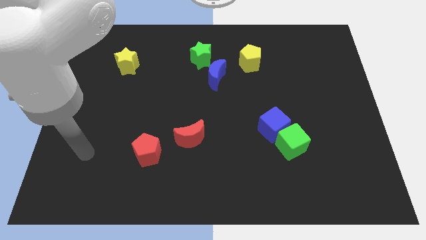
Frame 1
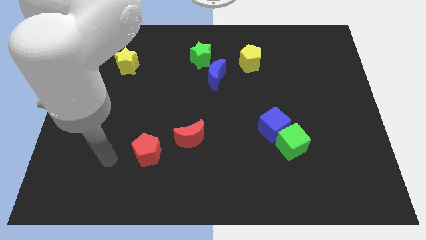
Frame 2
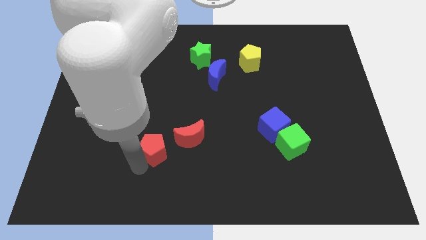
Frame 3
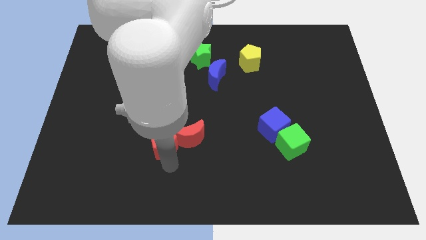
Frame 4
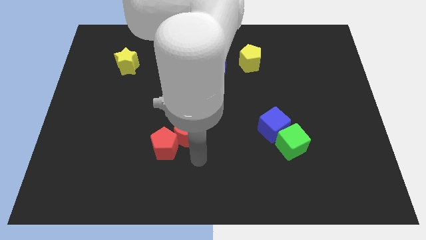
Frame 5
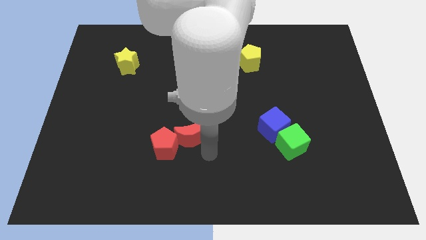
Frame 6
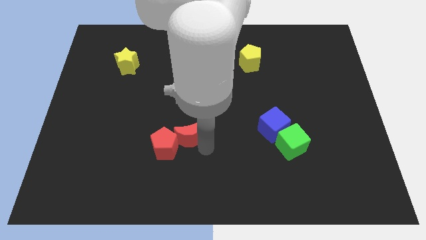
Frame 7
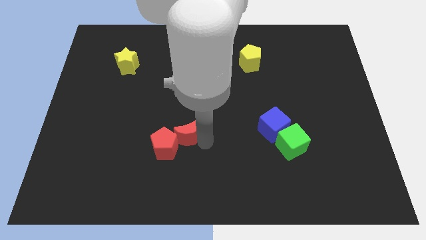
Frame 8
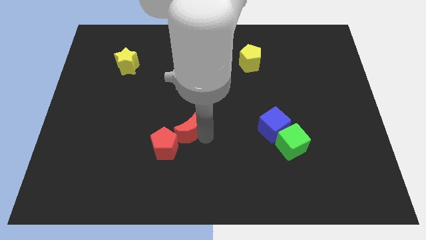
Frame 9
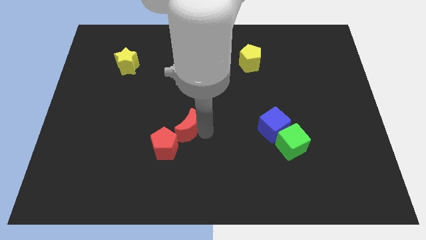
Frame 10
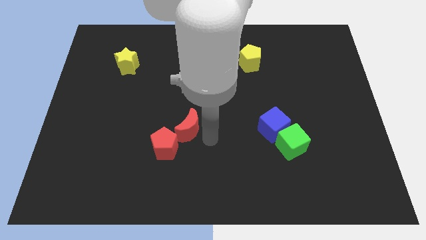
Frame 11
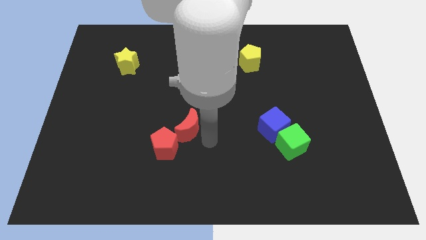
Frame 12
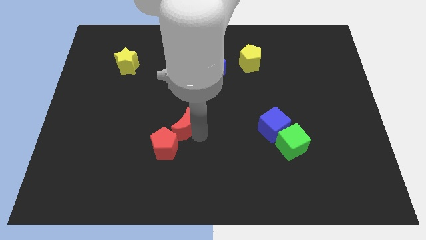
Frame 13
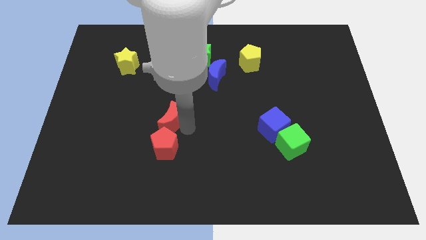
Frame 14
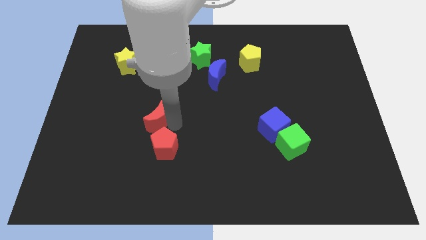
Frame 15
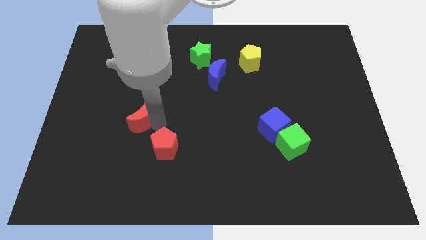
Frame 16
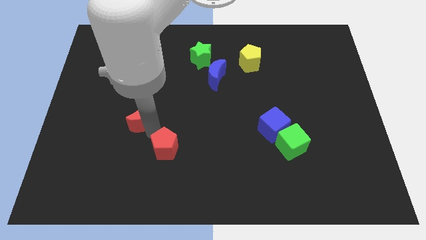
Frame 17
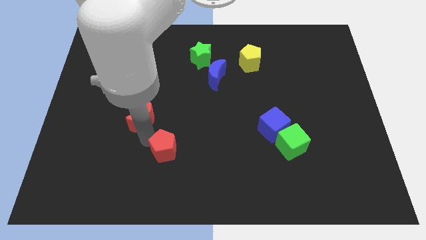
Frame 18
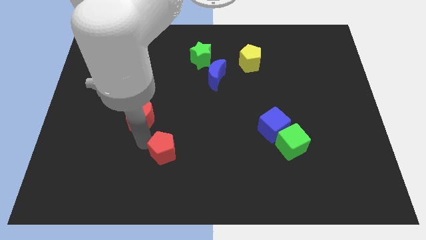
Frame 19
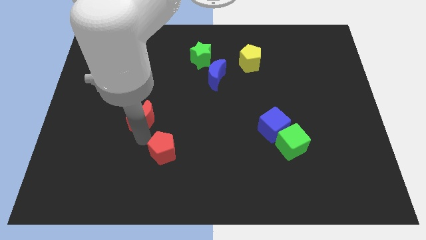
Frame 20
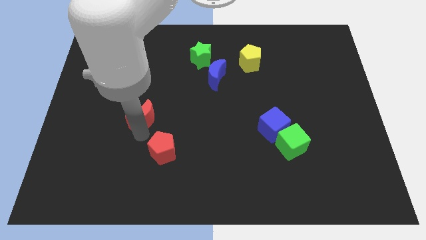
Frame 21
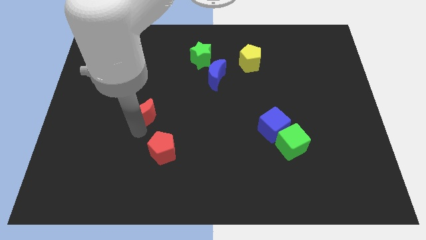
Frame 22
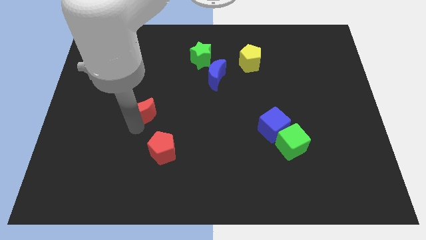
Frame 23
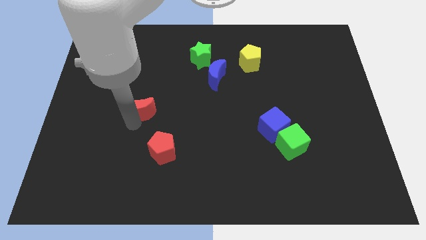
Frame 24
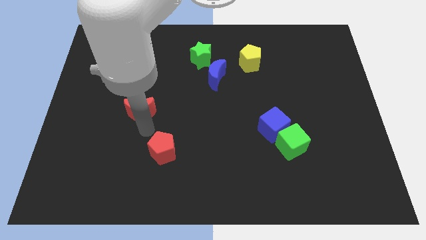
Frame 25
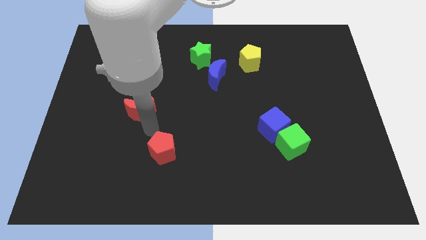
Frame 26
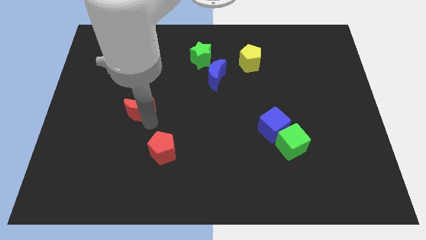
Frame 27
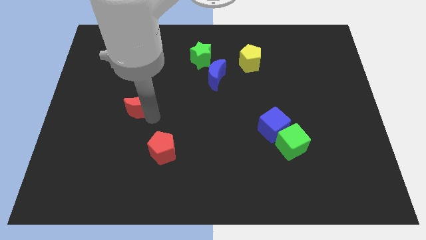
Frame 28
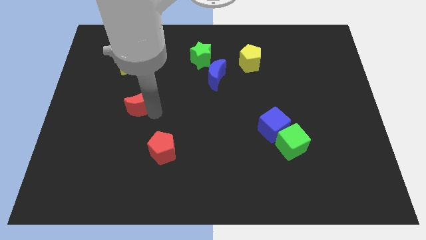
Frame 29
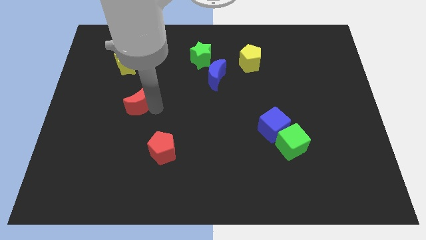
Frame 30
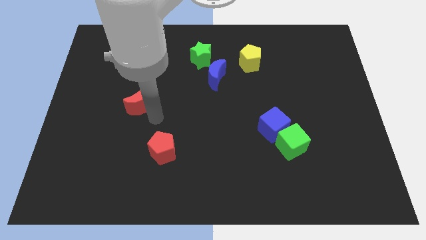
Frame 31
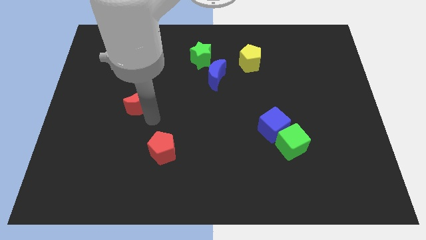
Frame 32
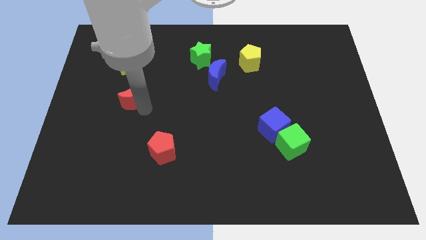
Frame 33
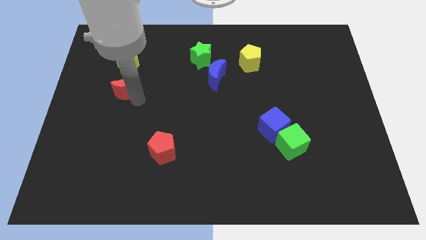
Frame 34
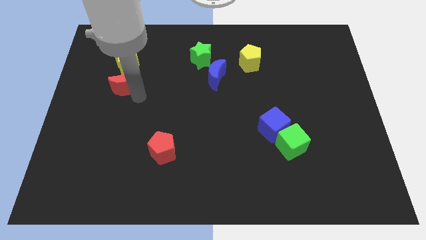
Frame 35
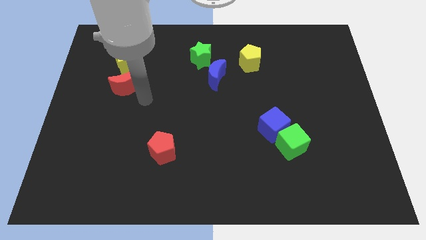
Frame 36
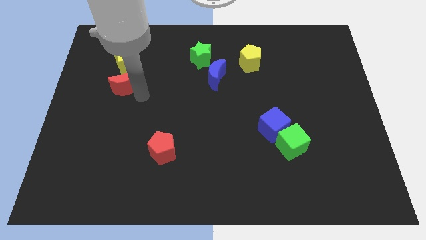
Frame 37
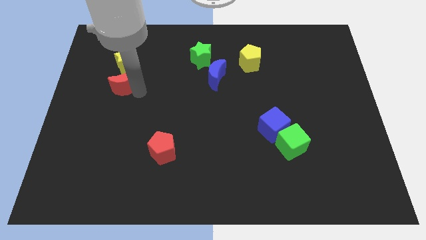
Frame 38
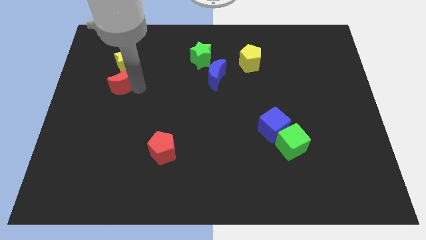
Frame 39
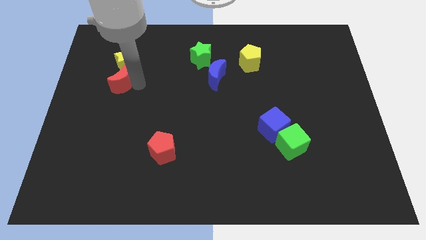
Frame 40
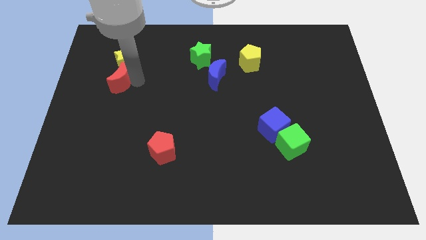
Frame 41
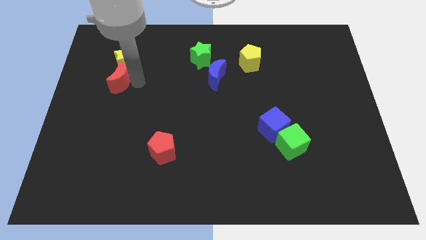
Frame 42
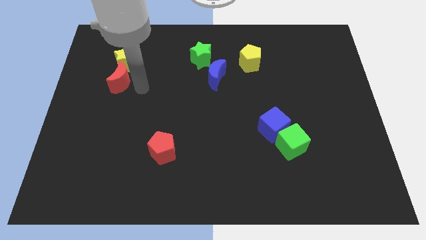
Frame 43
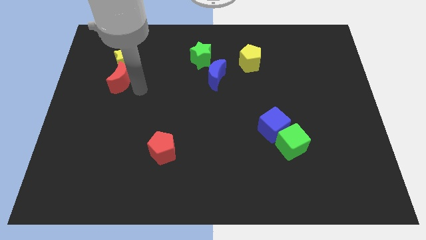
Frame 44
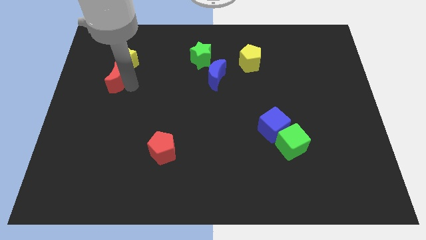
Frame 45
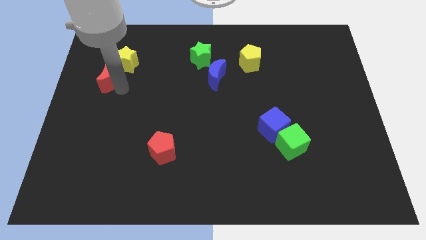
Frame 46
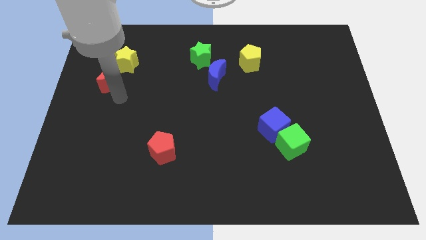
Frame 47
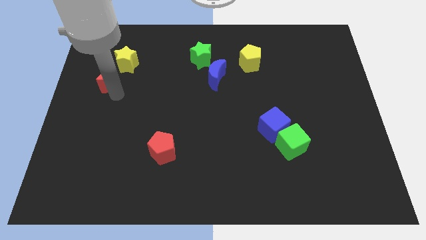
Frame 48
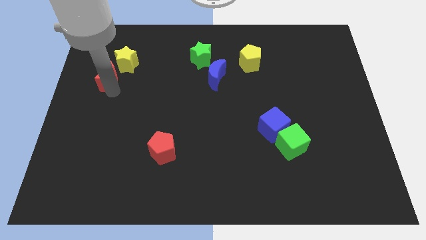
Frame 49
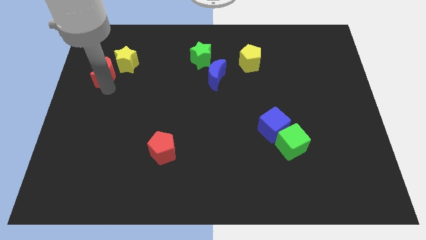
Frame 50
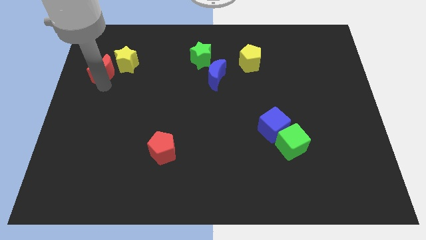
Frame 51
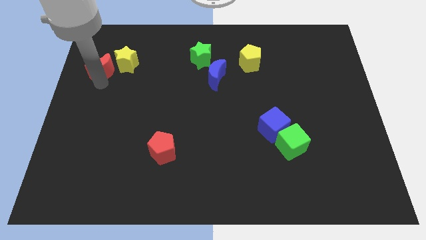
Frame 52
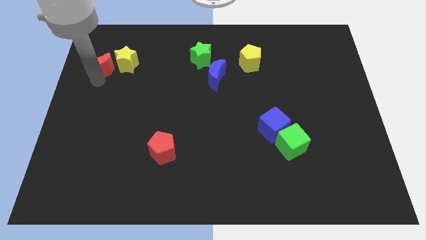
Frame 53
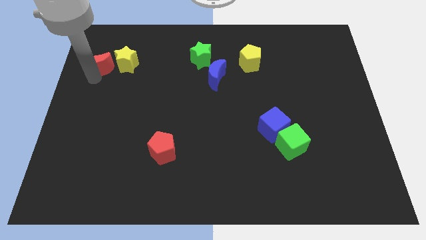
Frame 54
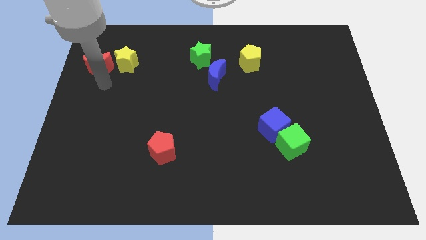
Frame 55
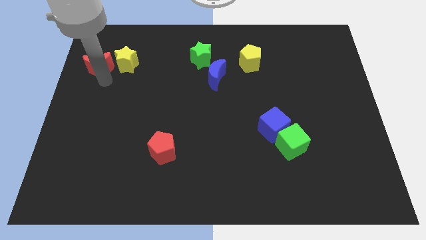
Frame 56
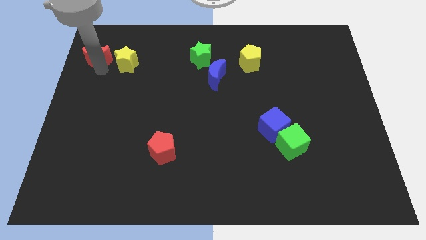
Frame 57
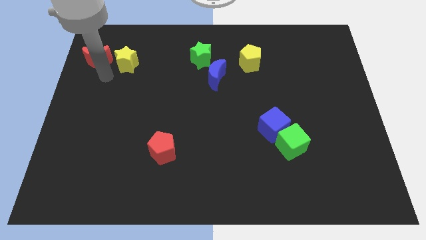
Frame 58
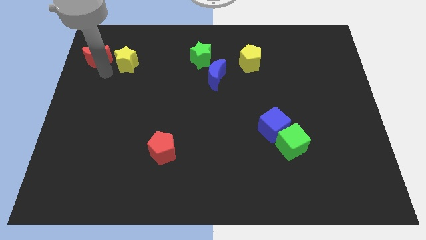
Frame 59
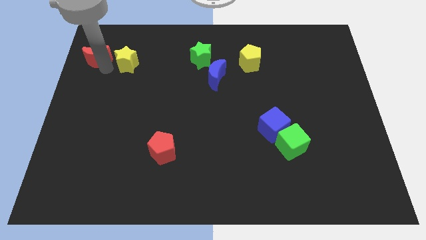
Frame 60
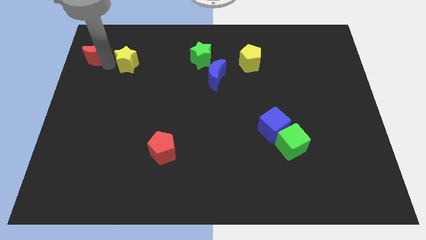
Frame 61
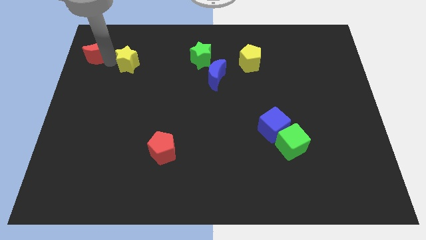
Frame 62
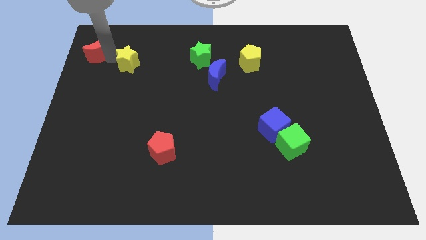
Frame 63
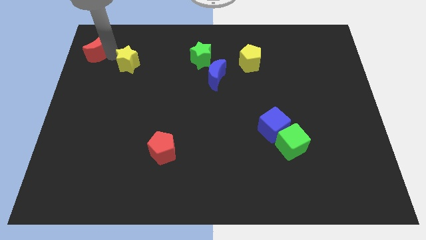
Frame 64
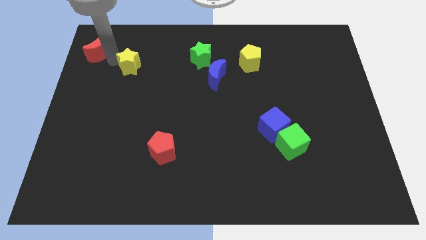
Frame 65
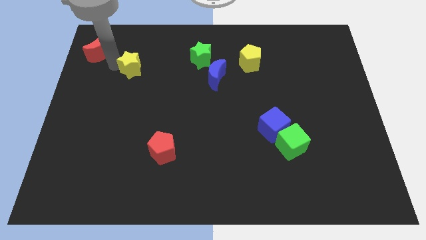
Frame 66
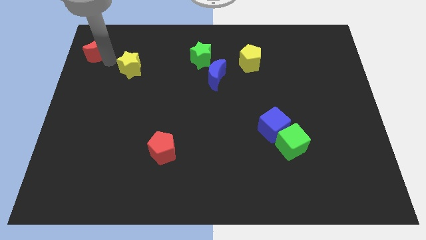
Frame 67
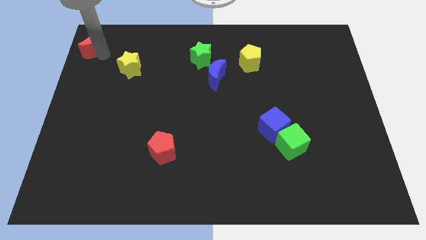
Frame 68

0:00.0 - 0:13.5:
move the red moon to the top left corner

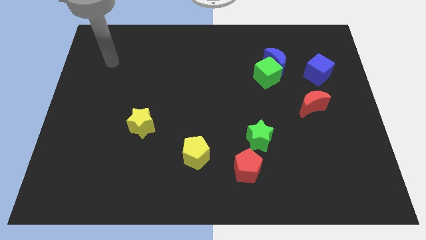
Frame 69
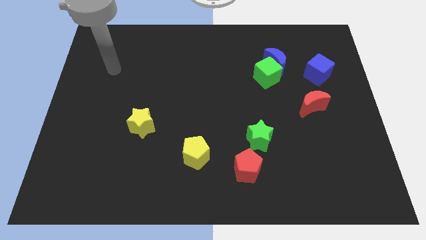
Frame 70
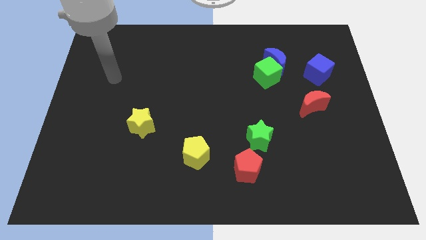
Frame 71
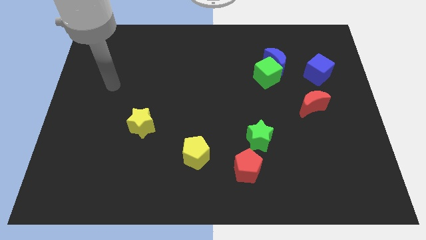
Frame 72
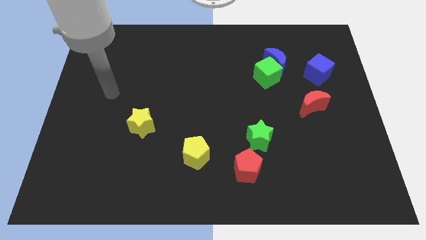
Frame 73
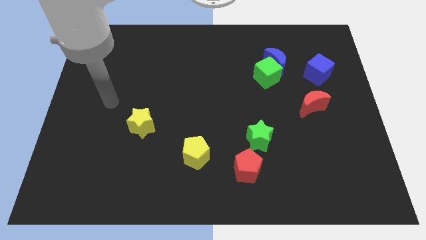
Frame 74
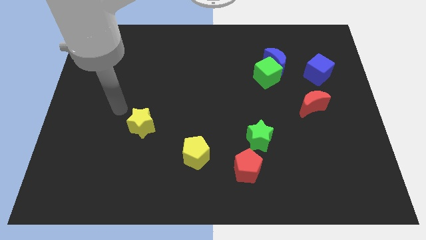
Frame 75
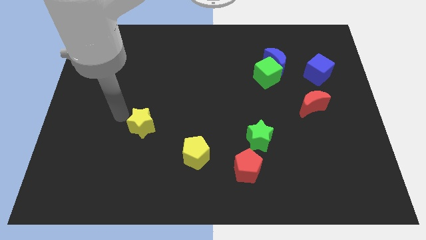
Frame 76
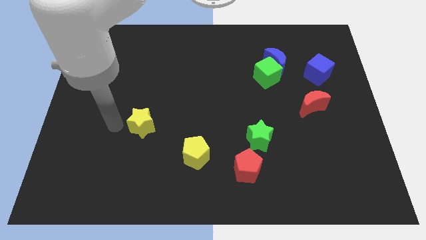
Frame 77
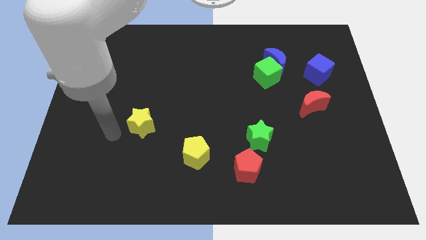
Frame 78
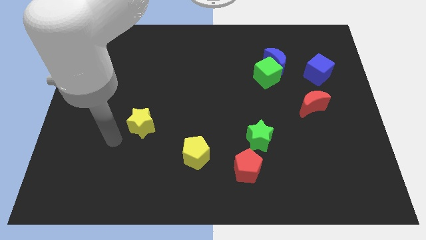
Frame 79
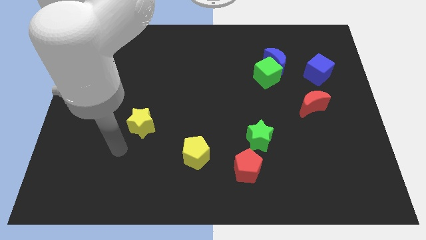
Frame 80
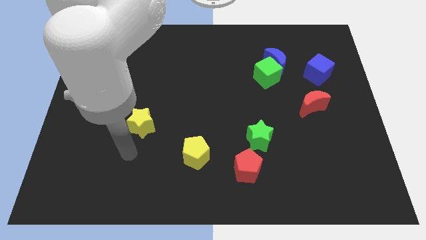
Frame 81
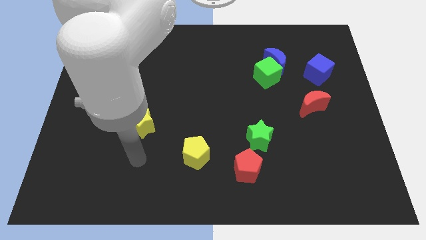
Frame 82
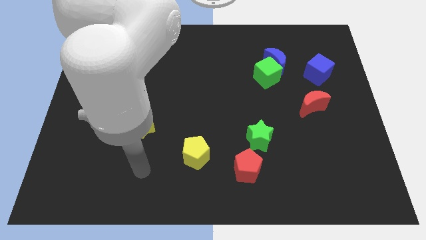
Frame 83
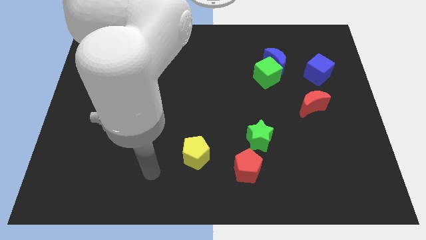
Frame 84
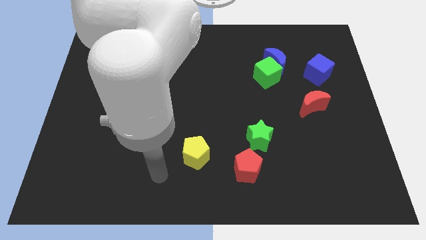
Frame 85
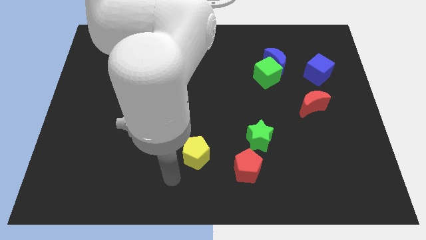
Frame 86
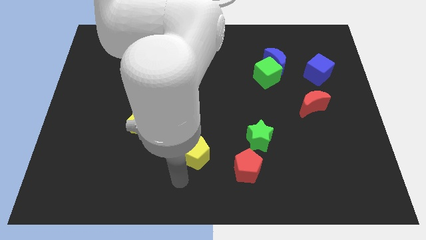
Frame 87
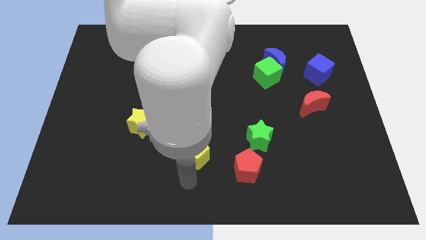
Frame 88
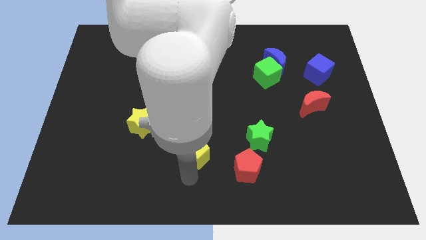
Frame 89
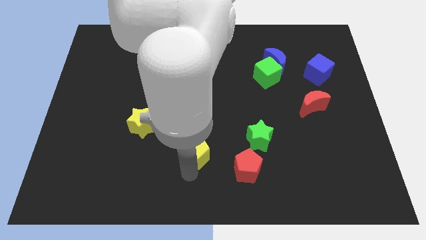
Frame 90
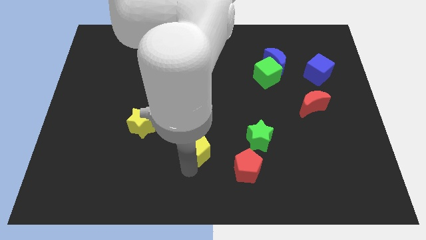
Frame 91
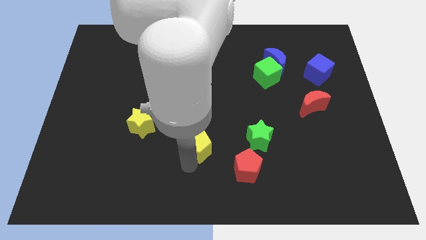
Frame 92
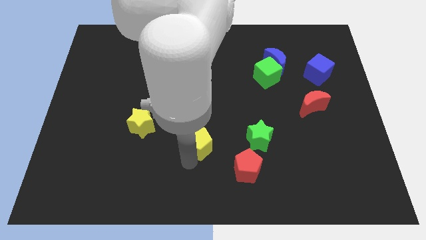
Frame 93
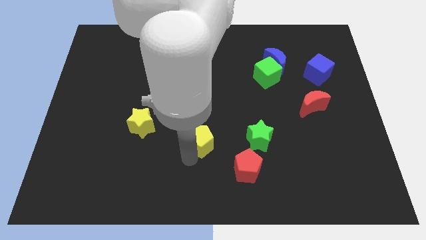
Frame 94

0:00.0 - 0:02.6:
move the yellow pentagon to the middle
